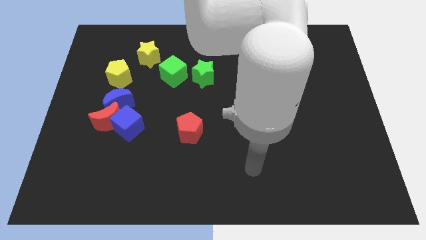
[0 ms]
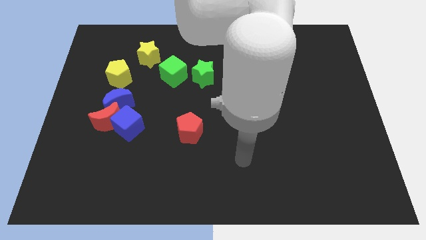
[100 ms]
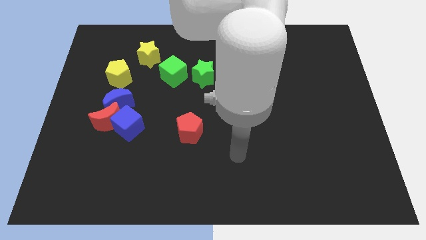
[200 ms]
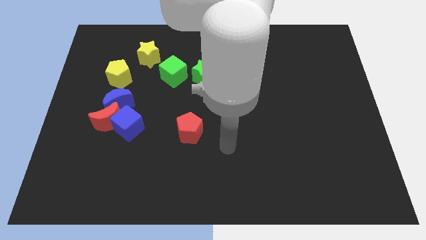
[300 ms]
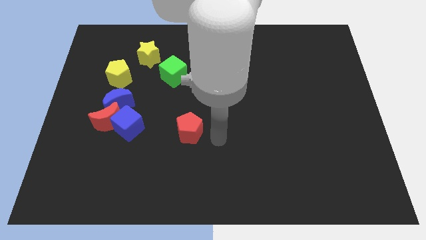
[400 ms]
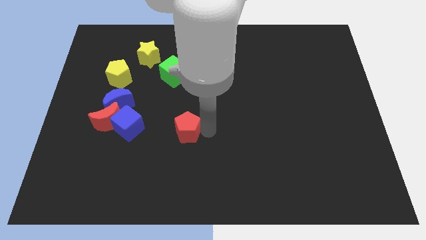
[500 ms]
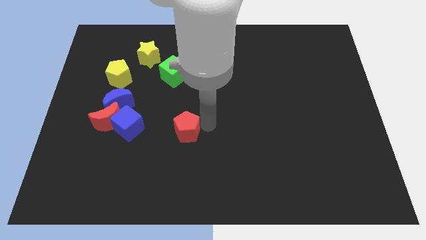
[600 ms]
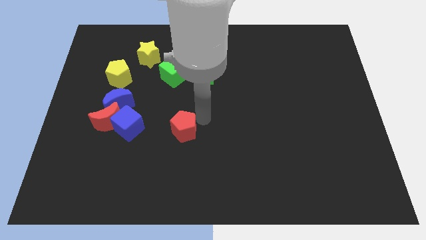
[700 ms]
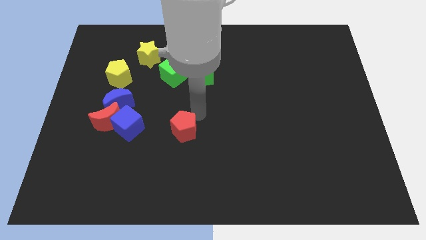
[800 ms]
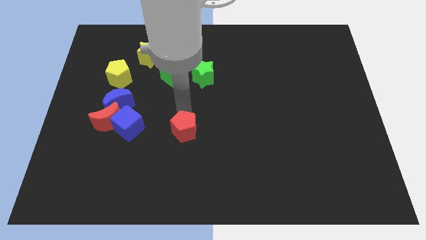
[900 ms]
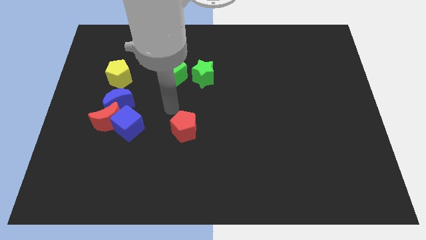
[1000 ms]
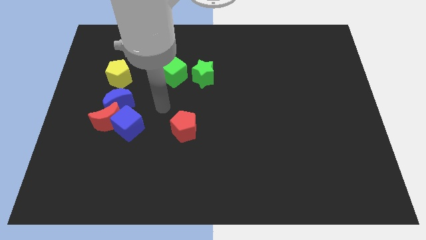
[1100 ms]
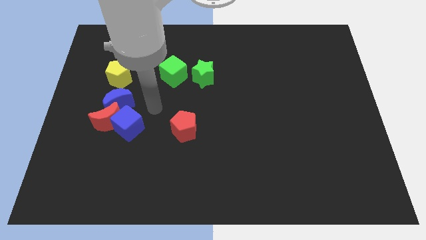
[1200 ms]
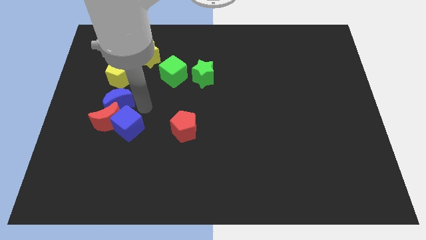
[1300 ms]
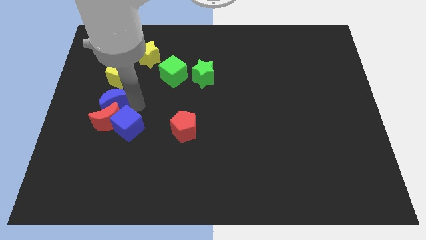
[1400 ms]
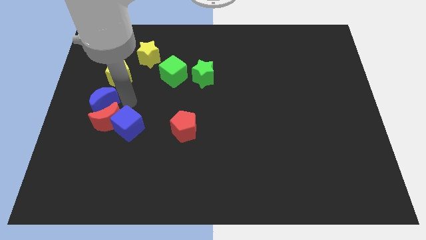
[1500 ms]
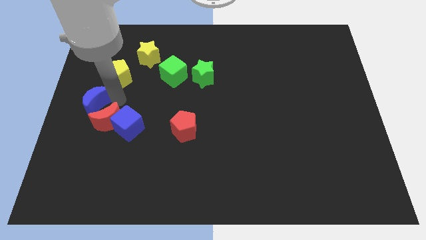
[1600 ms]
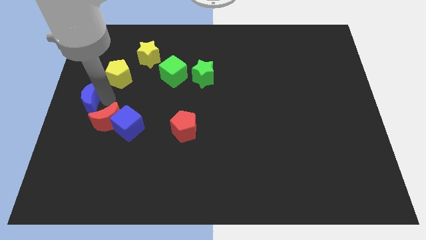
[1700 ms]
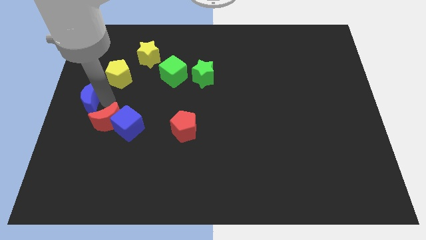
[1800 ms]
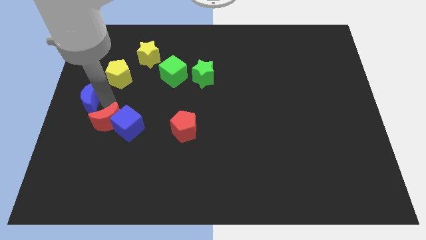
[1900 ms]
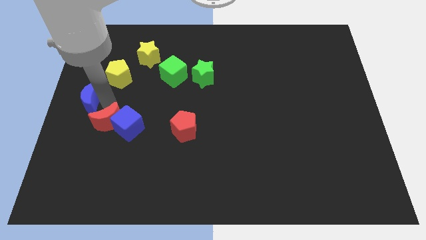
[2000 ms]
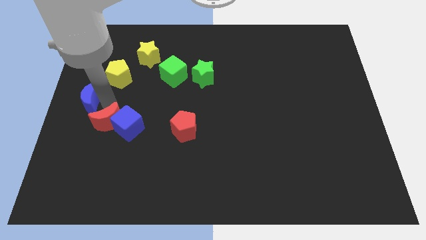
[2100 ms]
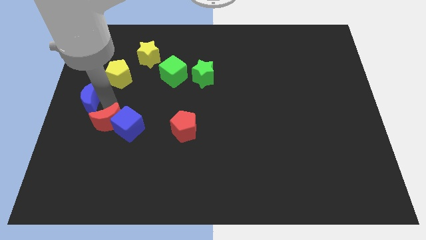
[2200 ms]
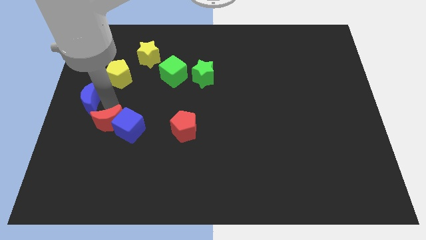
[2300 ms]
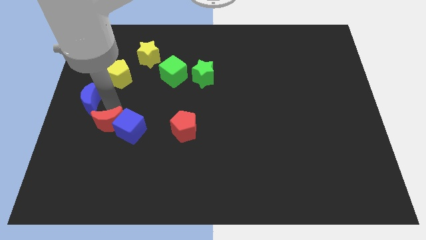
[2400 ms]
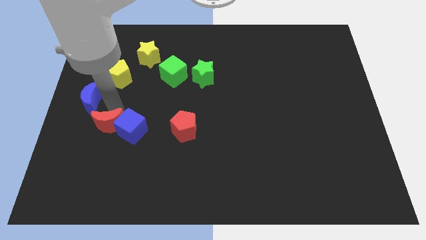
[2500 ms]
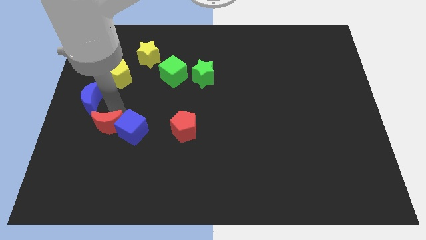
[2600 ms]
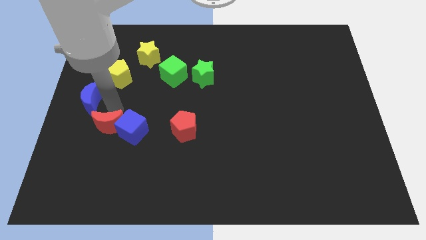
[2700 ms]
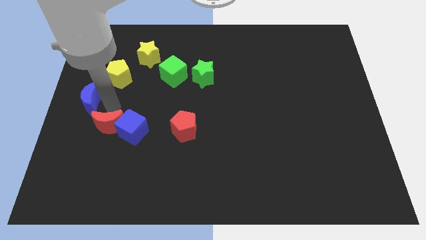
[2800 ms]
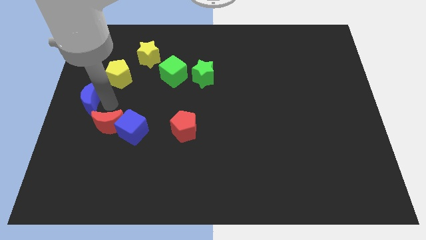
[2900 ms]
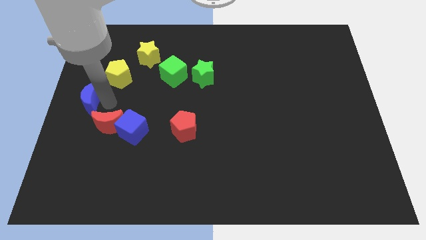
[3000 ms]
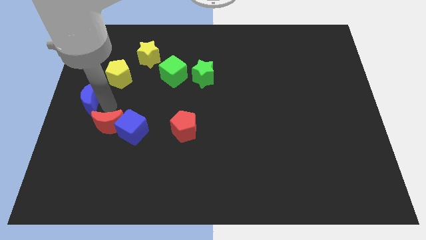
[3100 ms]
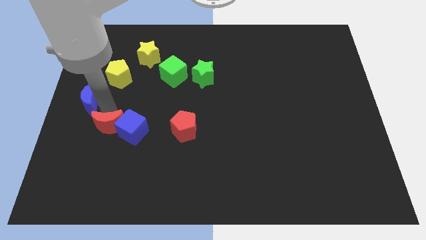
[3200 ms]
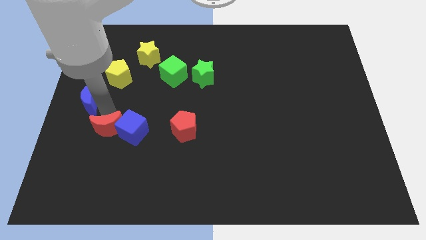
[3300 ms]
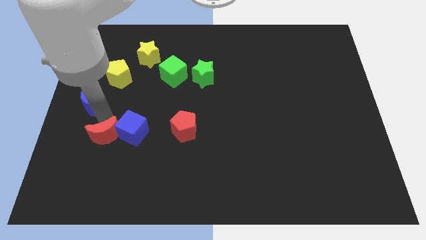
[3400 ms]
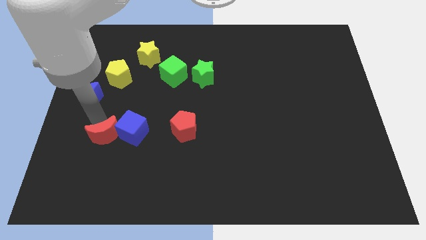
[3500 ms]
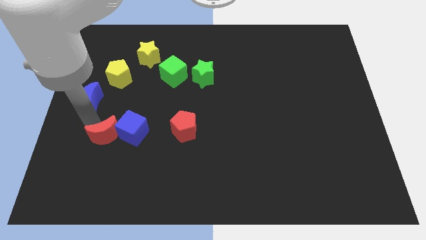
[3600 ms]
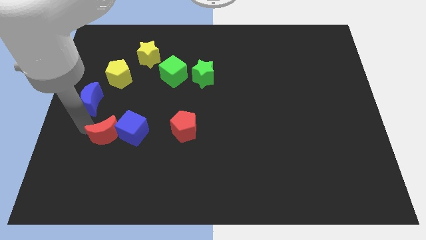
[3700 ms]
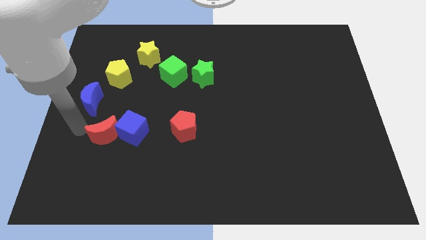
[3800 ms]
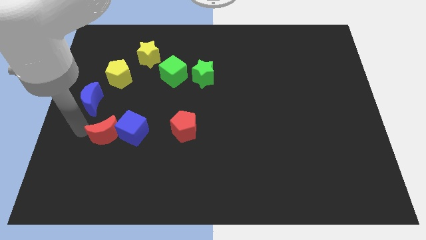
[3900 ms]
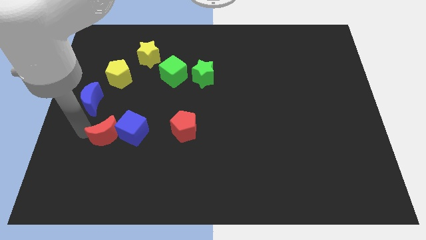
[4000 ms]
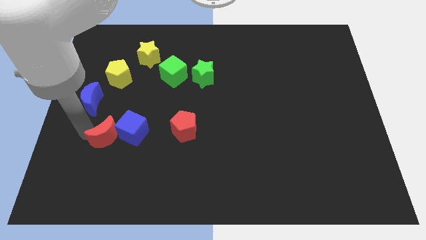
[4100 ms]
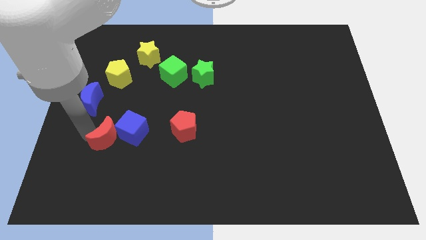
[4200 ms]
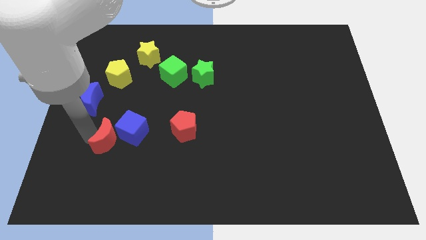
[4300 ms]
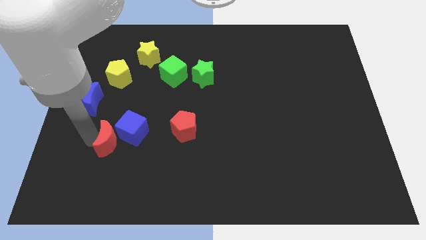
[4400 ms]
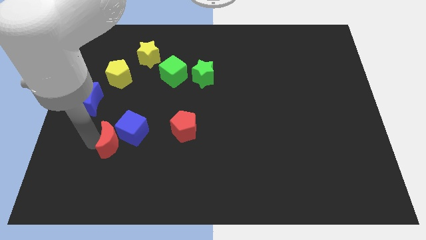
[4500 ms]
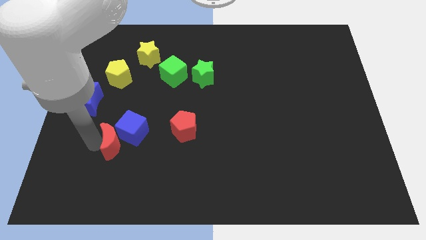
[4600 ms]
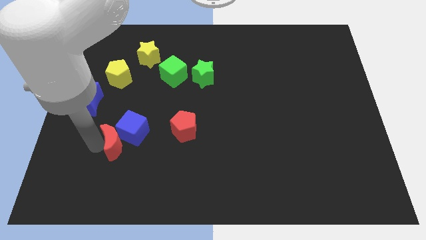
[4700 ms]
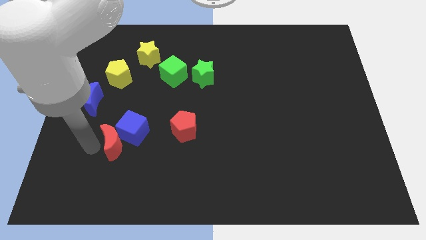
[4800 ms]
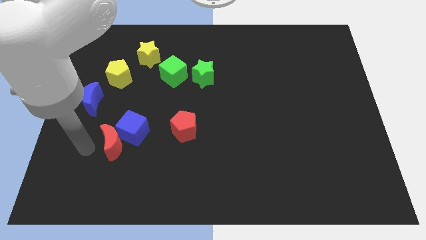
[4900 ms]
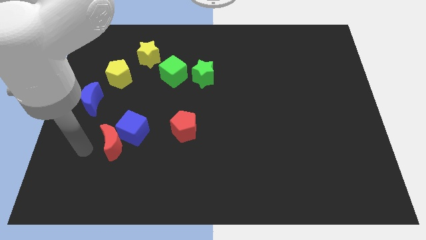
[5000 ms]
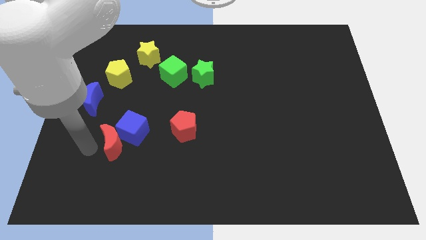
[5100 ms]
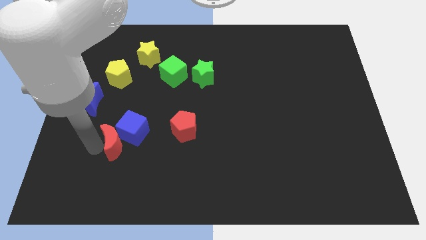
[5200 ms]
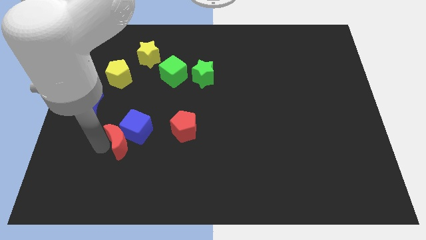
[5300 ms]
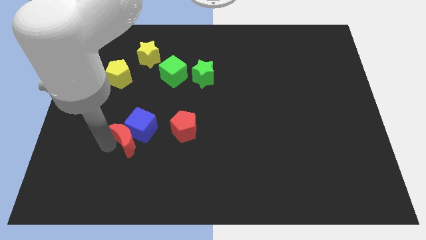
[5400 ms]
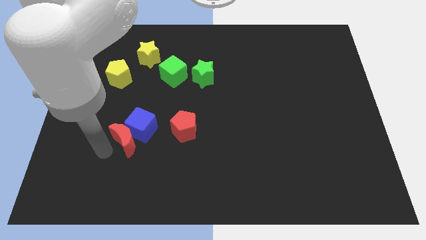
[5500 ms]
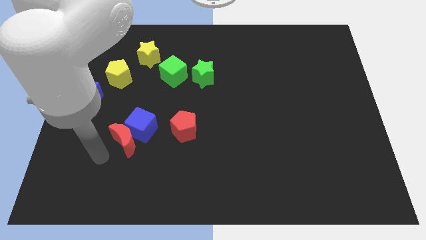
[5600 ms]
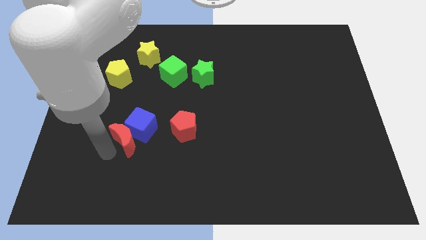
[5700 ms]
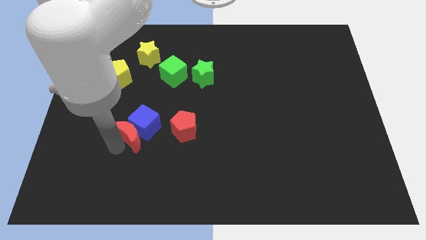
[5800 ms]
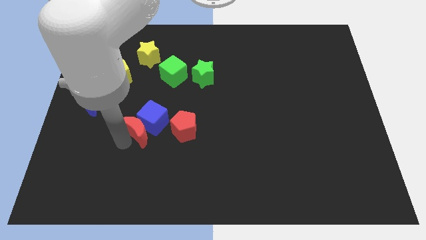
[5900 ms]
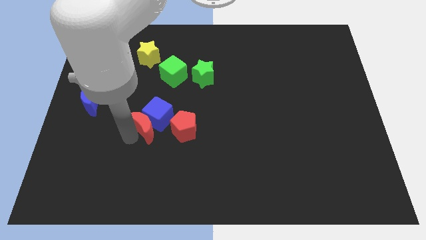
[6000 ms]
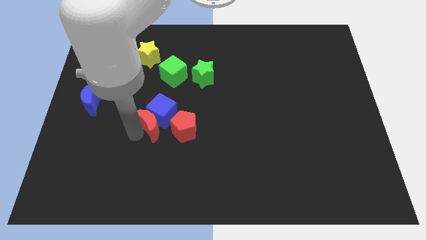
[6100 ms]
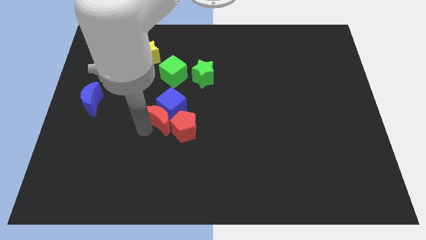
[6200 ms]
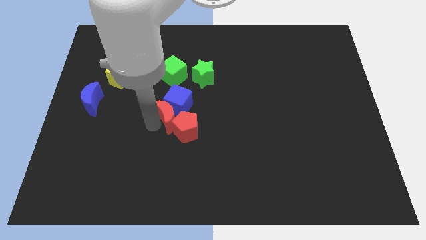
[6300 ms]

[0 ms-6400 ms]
put the red moon to the middle

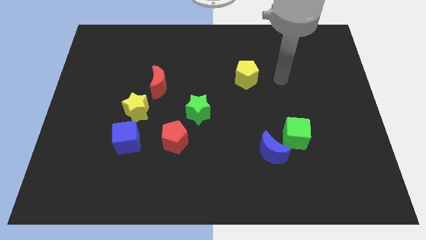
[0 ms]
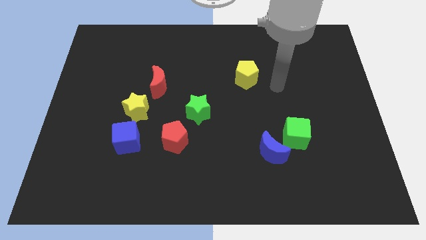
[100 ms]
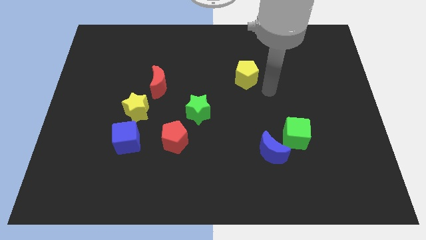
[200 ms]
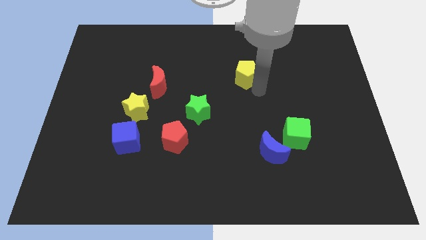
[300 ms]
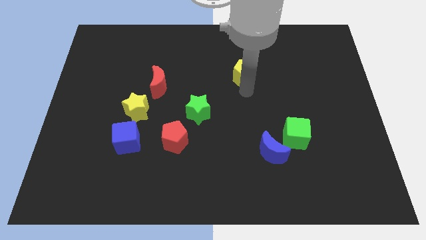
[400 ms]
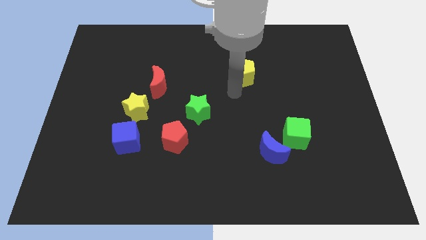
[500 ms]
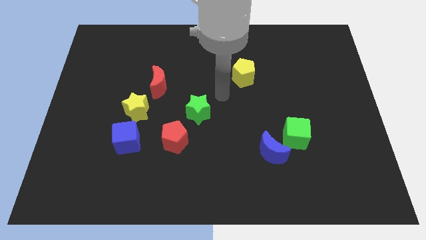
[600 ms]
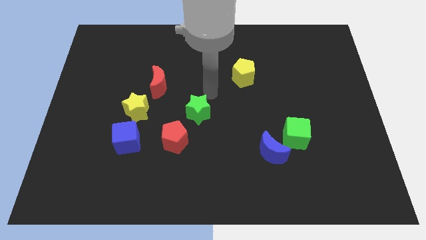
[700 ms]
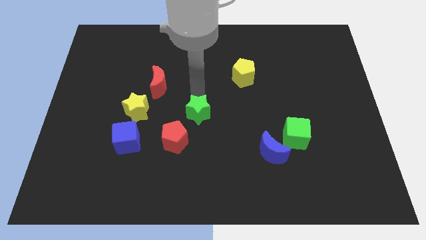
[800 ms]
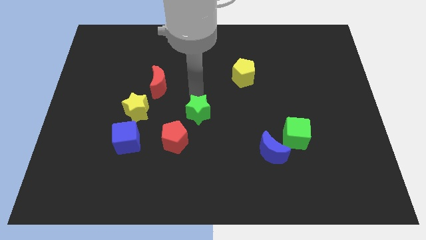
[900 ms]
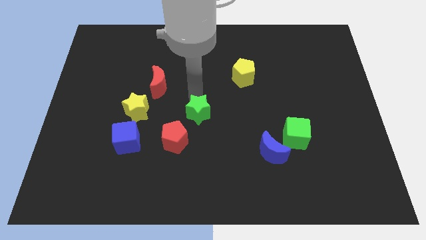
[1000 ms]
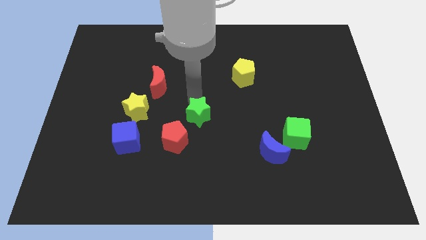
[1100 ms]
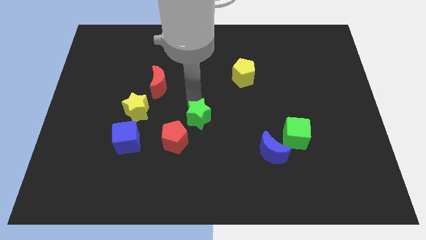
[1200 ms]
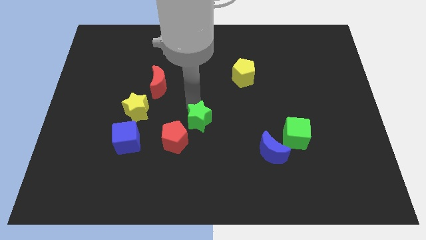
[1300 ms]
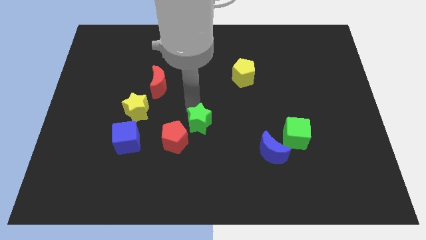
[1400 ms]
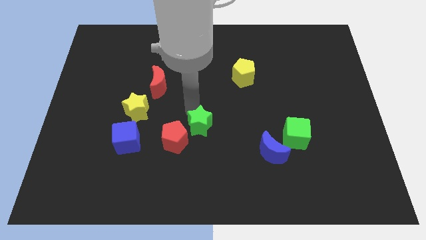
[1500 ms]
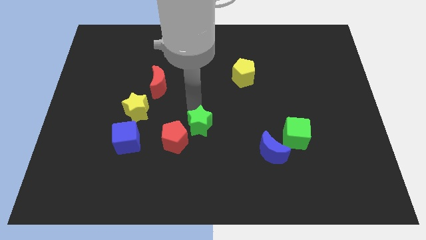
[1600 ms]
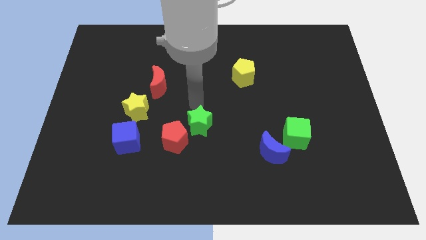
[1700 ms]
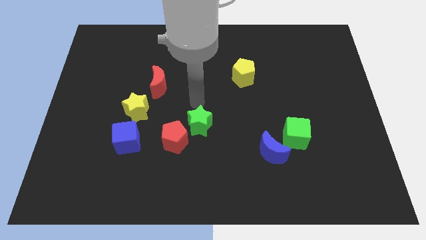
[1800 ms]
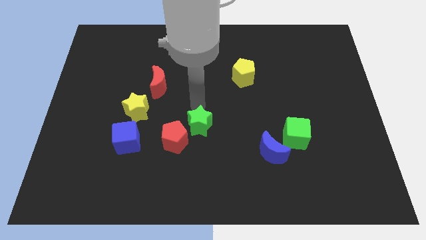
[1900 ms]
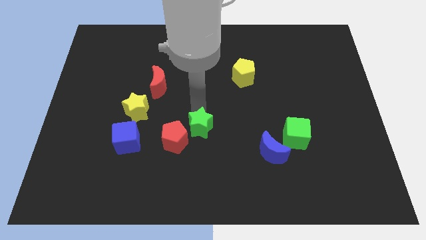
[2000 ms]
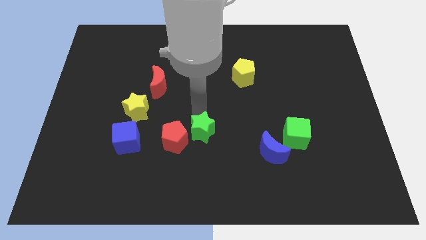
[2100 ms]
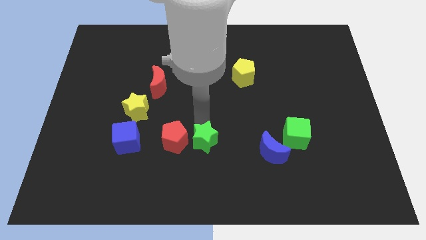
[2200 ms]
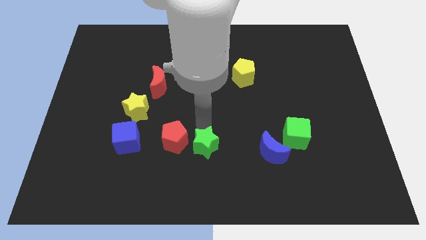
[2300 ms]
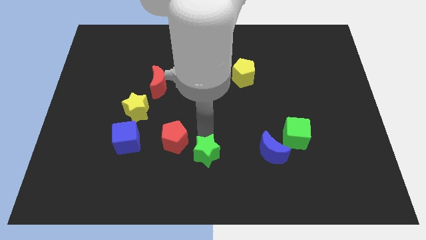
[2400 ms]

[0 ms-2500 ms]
put the green star to the bottom
